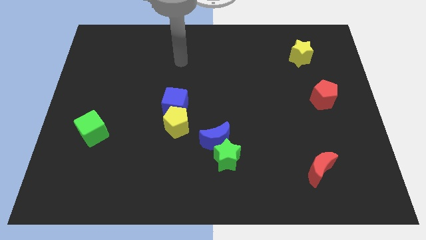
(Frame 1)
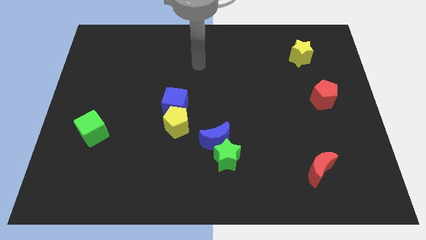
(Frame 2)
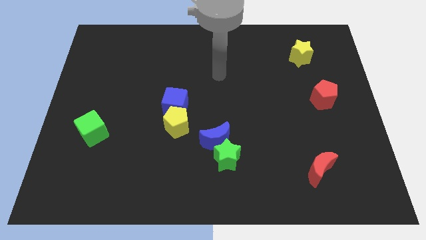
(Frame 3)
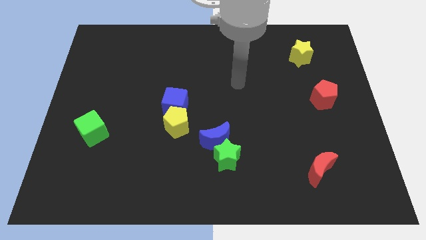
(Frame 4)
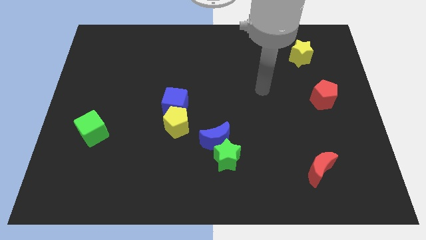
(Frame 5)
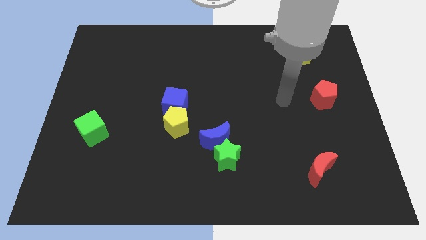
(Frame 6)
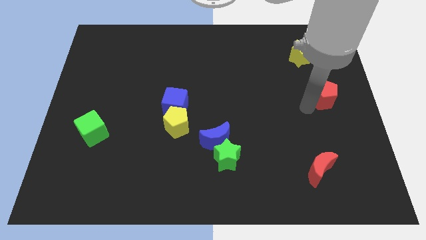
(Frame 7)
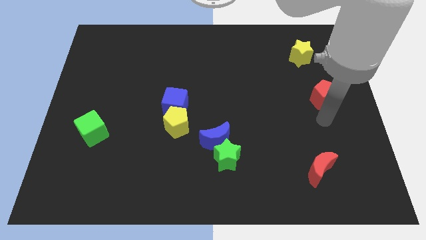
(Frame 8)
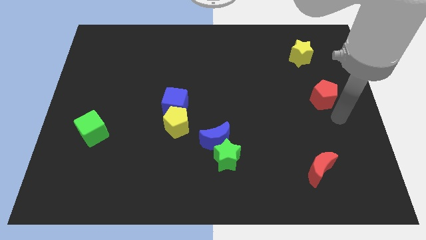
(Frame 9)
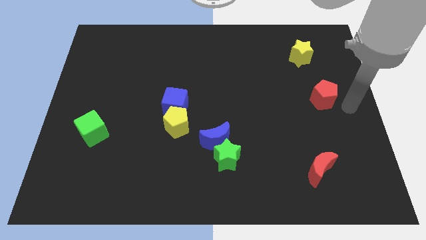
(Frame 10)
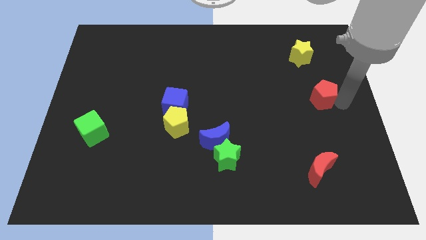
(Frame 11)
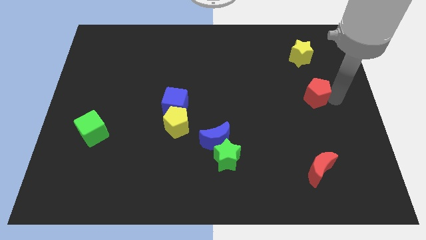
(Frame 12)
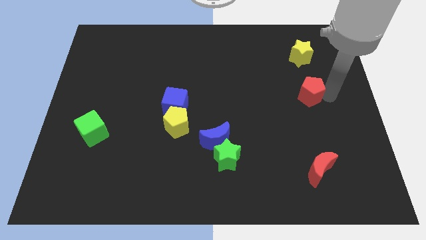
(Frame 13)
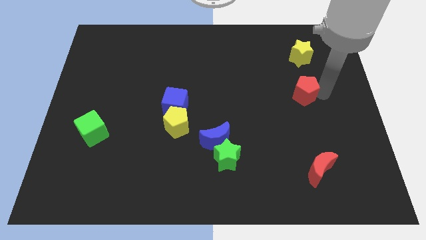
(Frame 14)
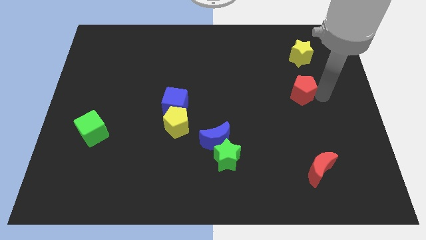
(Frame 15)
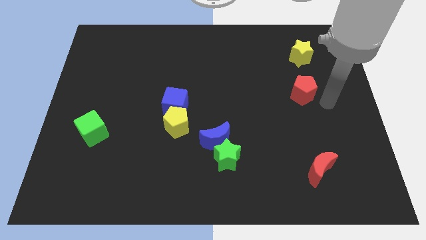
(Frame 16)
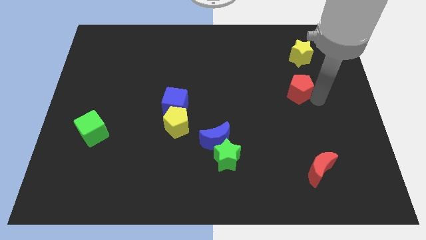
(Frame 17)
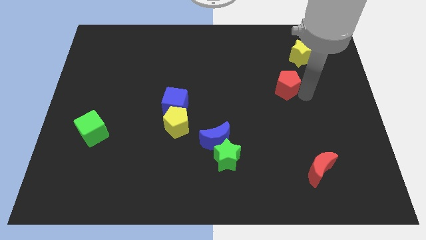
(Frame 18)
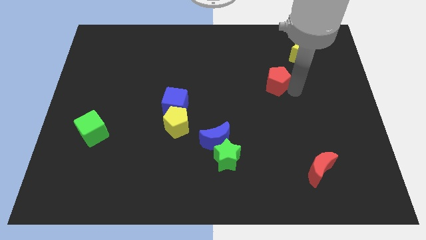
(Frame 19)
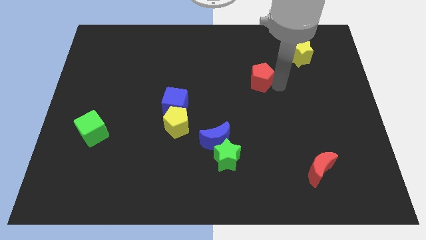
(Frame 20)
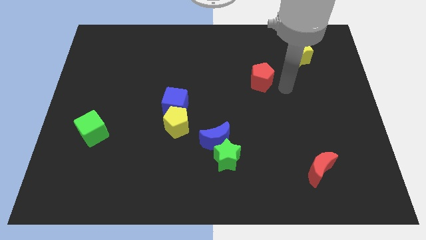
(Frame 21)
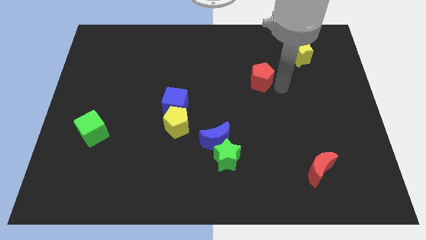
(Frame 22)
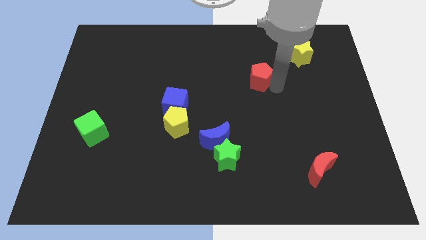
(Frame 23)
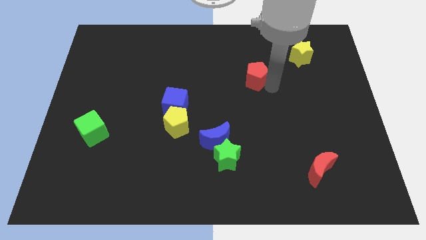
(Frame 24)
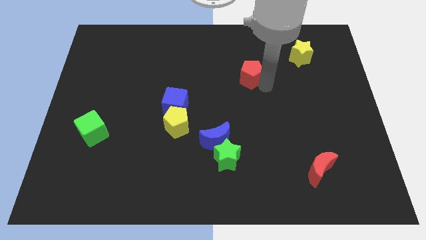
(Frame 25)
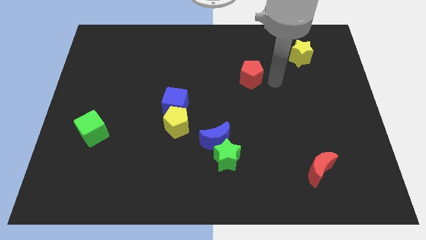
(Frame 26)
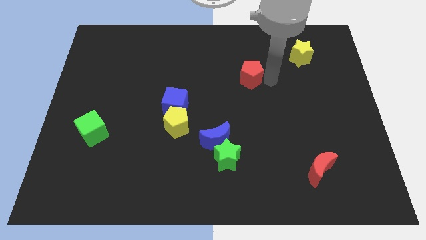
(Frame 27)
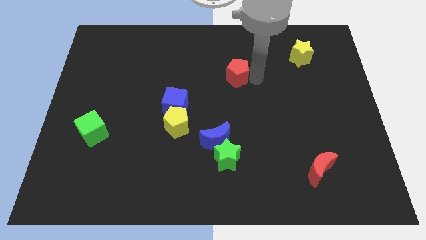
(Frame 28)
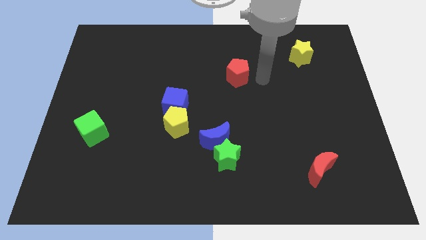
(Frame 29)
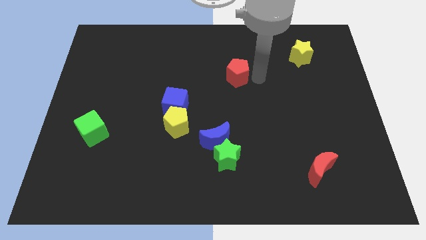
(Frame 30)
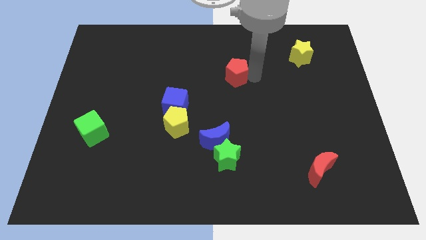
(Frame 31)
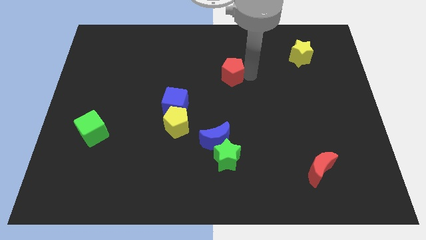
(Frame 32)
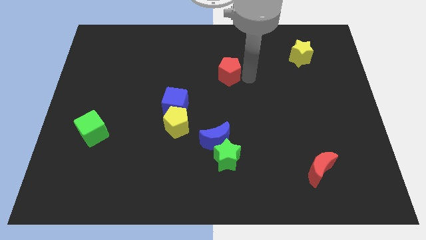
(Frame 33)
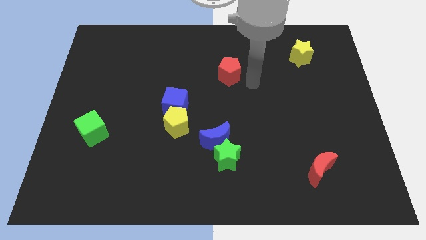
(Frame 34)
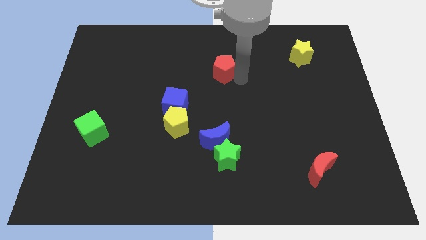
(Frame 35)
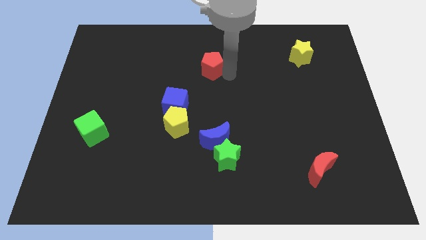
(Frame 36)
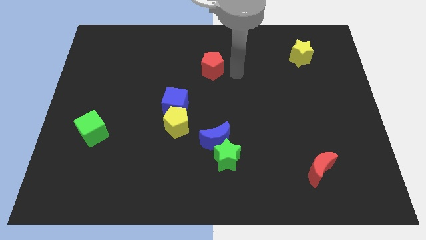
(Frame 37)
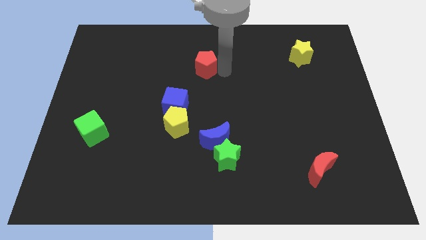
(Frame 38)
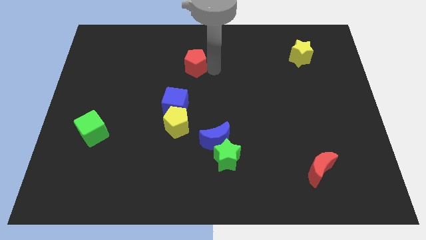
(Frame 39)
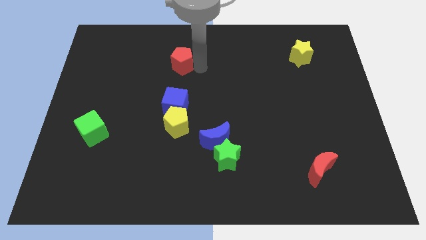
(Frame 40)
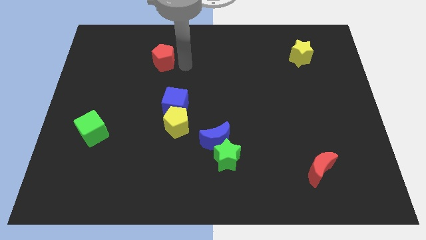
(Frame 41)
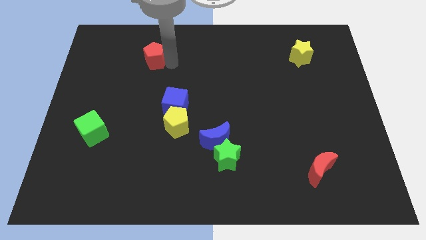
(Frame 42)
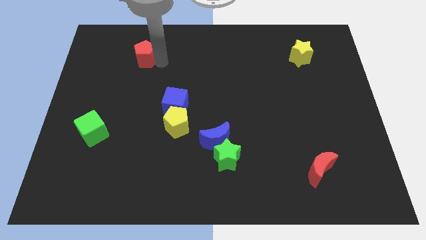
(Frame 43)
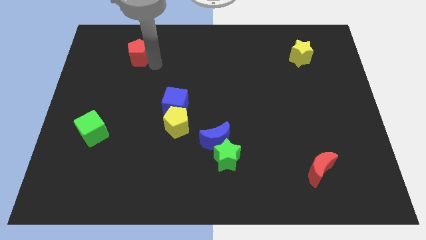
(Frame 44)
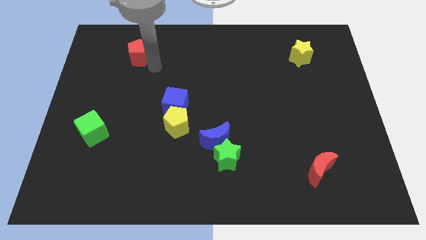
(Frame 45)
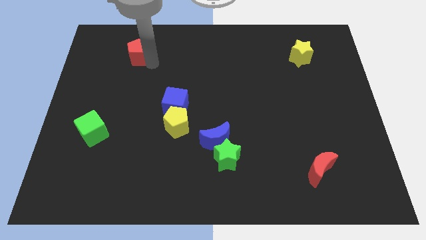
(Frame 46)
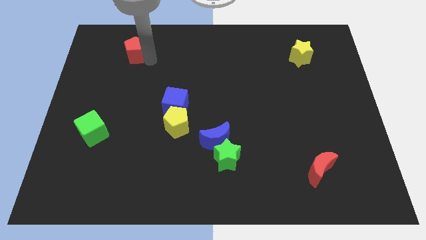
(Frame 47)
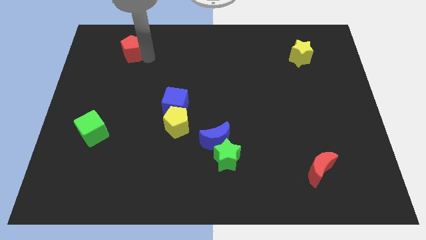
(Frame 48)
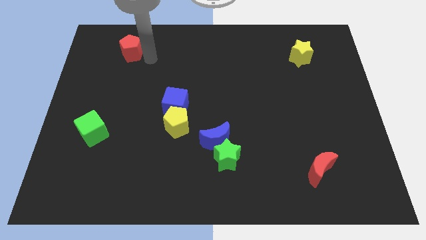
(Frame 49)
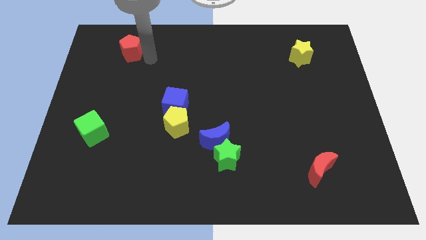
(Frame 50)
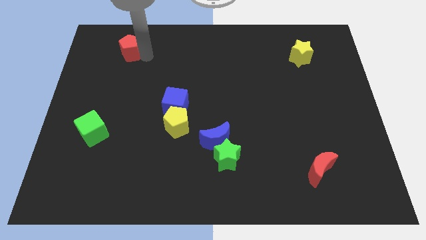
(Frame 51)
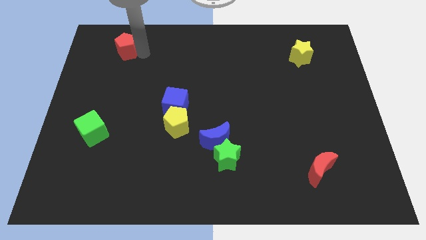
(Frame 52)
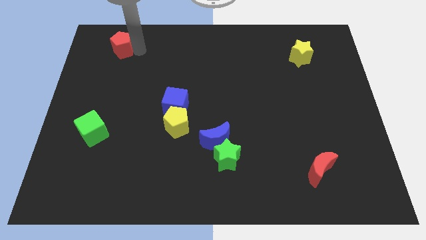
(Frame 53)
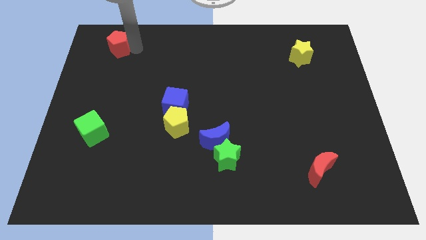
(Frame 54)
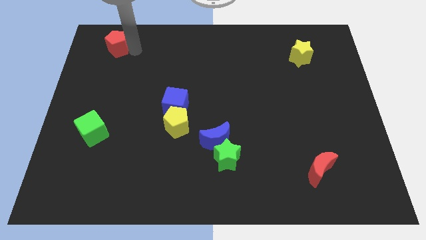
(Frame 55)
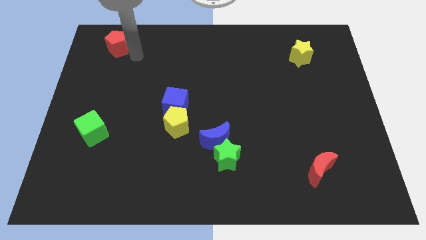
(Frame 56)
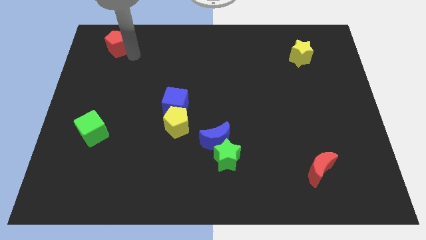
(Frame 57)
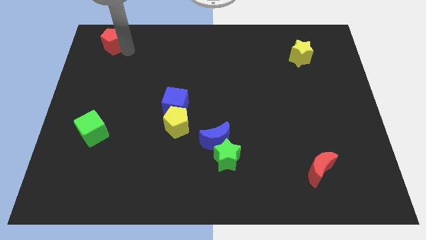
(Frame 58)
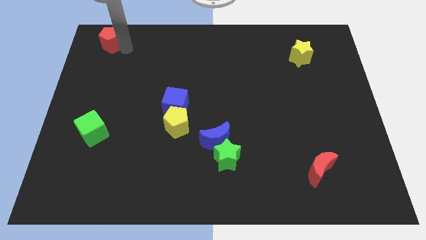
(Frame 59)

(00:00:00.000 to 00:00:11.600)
push the red pentagon to the top left corner
